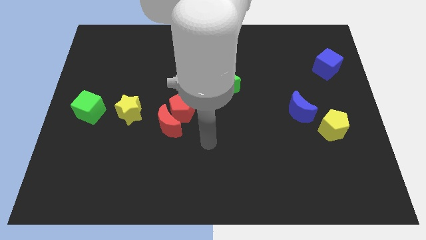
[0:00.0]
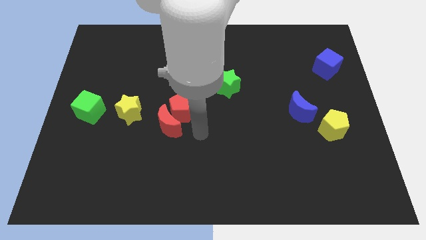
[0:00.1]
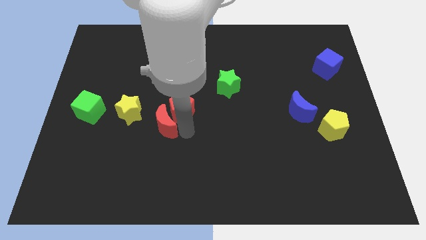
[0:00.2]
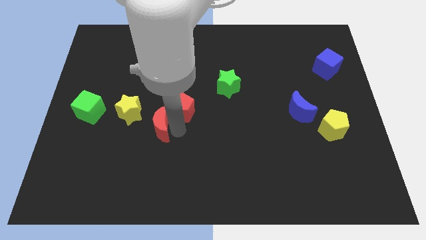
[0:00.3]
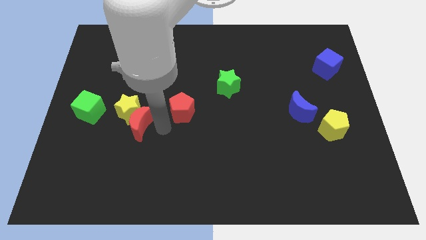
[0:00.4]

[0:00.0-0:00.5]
move the red pentagon away from the red moon

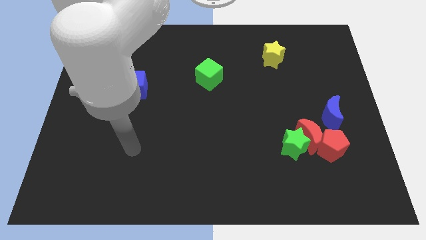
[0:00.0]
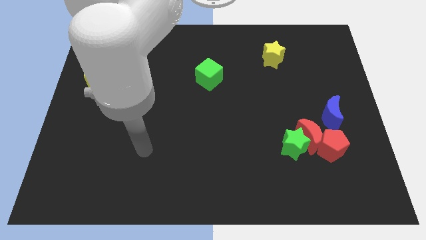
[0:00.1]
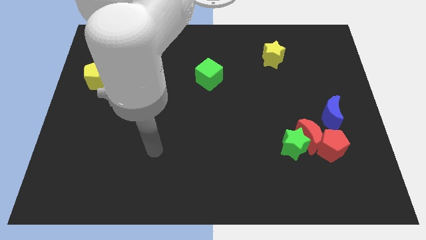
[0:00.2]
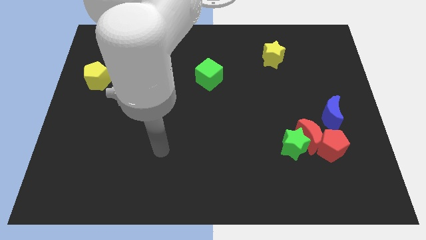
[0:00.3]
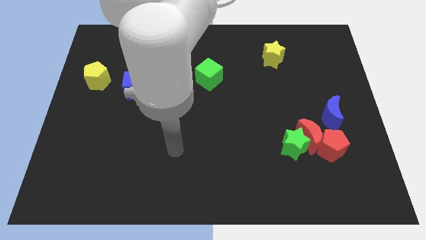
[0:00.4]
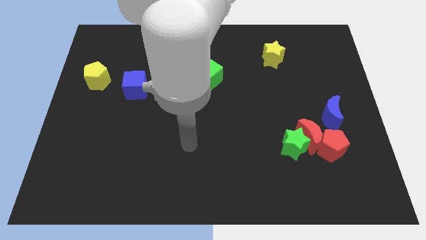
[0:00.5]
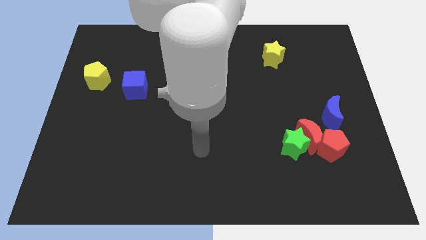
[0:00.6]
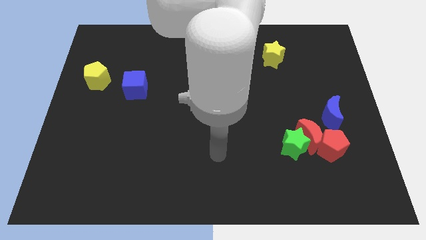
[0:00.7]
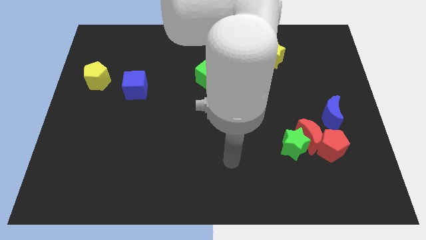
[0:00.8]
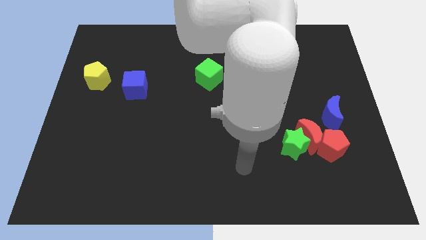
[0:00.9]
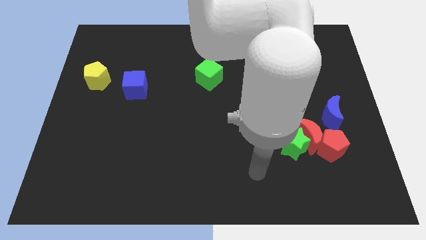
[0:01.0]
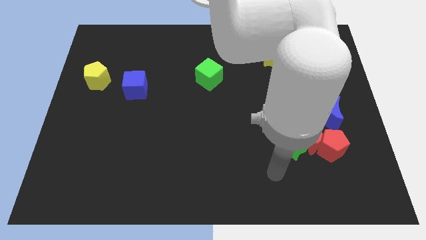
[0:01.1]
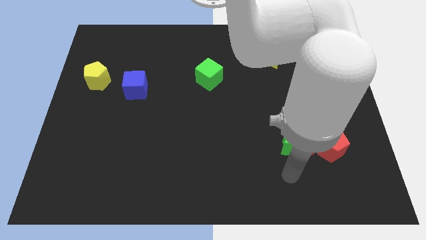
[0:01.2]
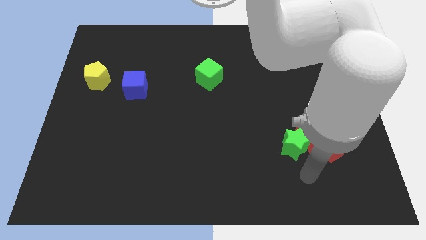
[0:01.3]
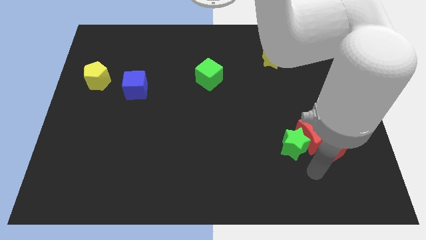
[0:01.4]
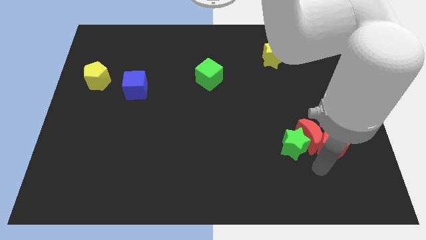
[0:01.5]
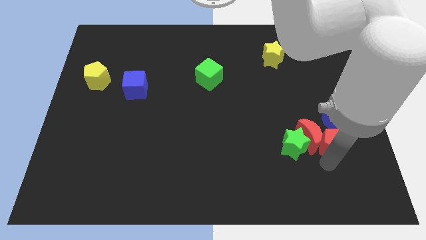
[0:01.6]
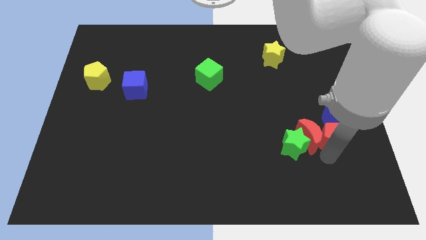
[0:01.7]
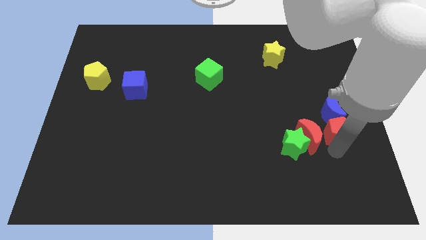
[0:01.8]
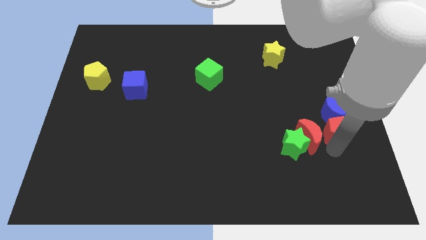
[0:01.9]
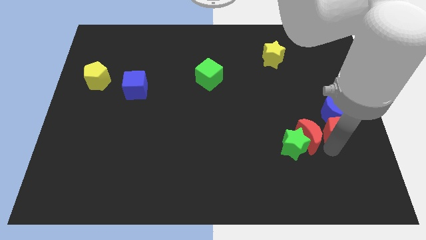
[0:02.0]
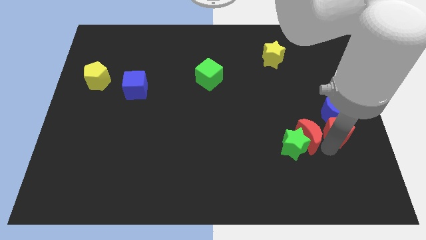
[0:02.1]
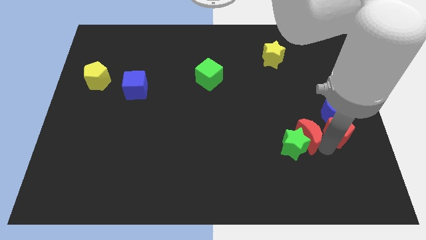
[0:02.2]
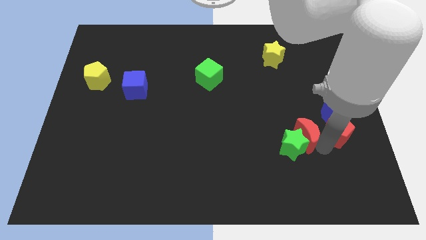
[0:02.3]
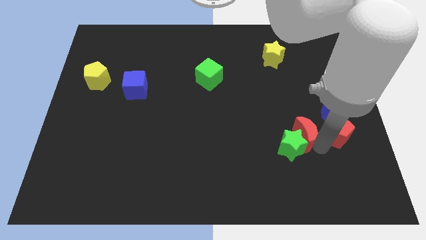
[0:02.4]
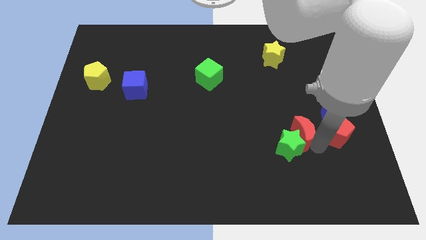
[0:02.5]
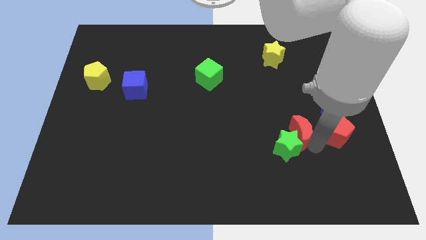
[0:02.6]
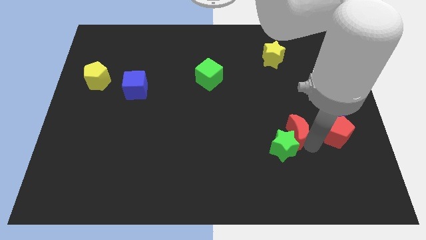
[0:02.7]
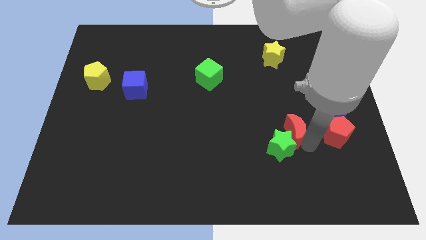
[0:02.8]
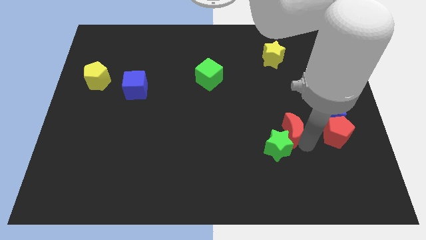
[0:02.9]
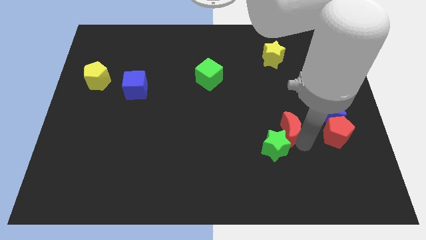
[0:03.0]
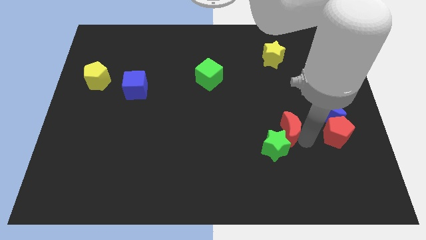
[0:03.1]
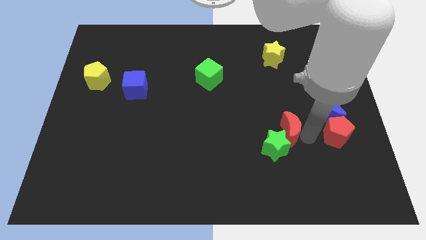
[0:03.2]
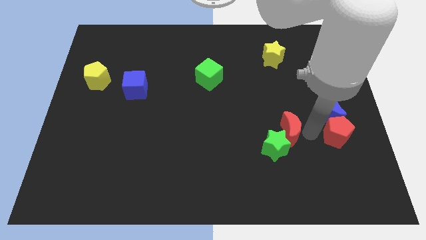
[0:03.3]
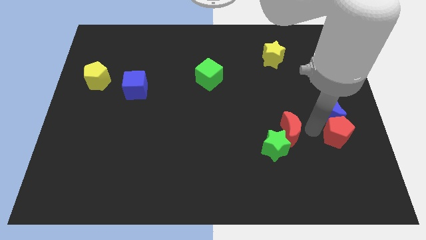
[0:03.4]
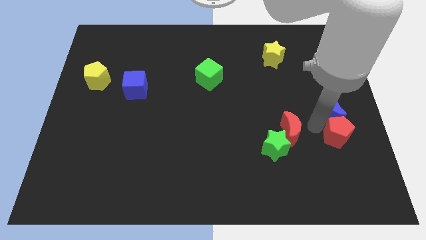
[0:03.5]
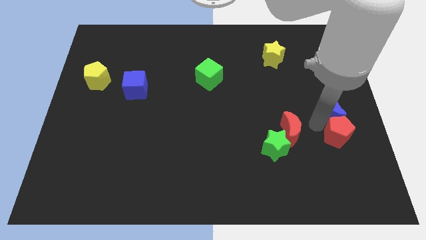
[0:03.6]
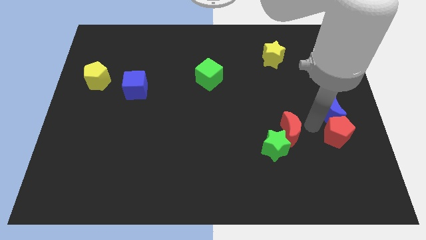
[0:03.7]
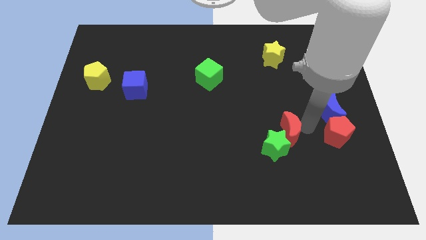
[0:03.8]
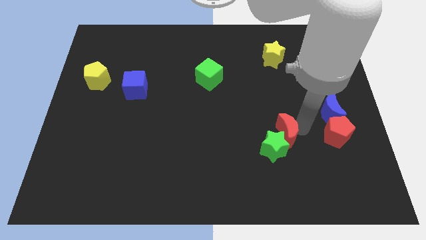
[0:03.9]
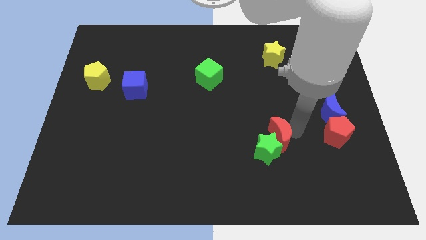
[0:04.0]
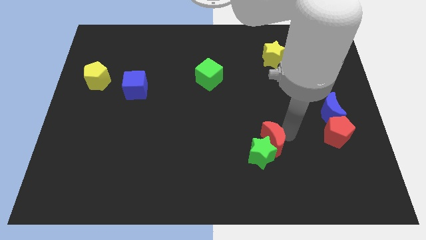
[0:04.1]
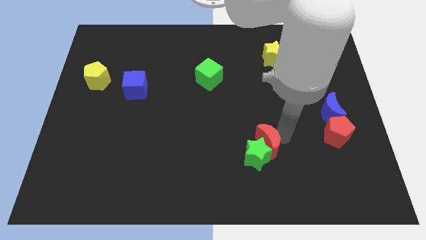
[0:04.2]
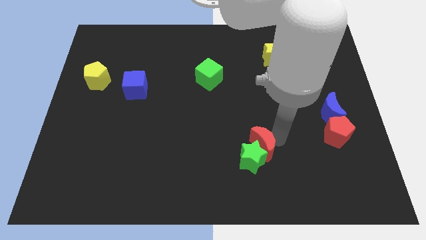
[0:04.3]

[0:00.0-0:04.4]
separate the red moon from the green star, red pentagon, and blue moon

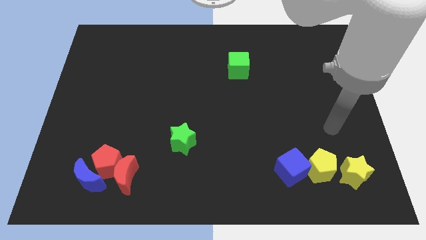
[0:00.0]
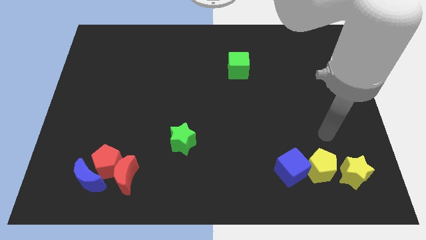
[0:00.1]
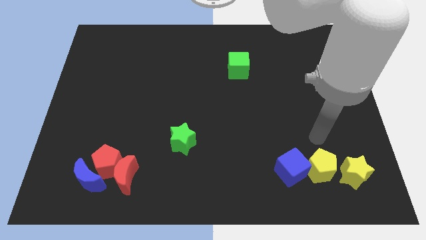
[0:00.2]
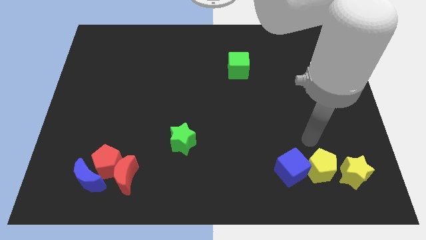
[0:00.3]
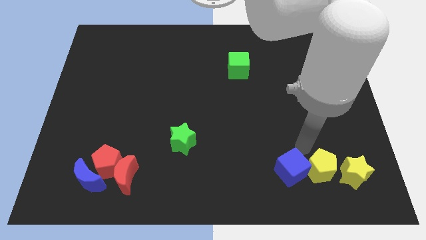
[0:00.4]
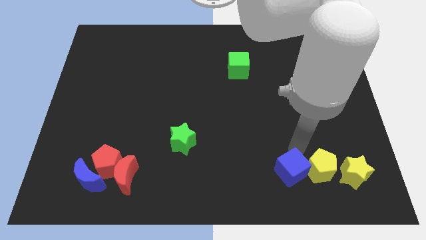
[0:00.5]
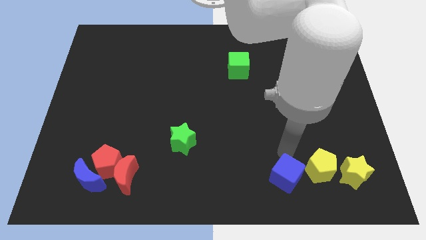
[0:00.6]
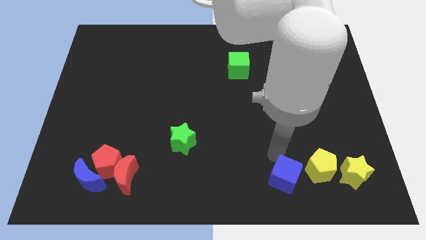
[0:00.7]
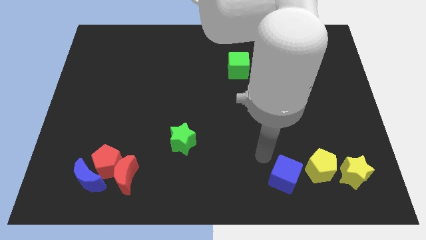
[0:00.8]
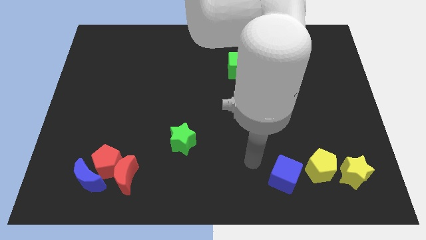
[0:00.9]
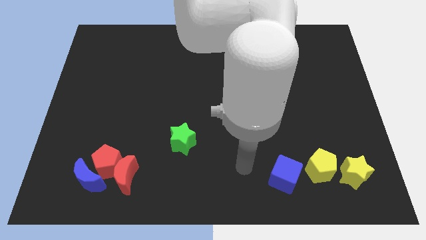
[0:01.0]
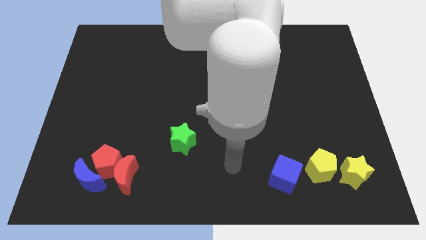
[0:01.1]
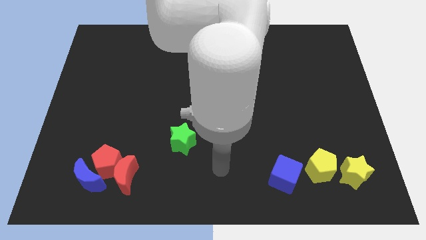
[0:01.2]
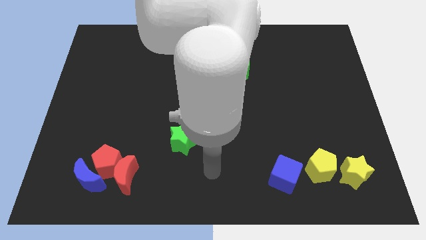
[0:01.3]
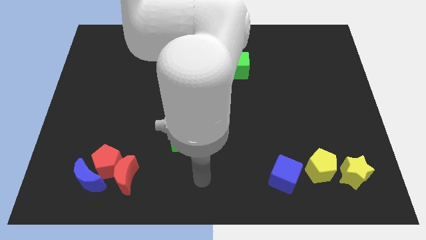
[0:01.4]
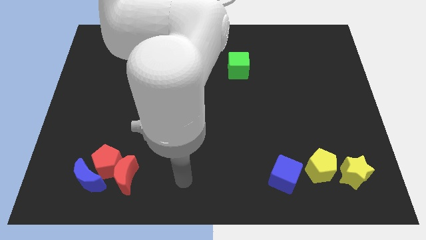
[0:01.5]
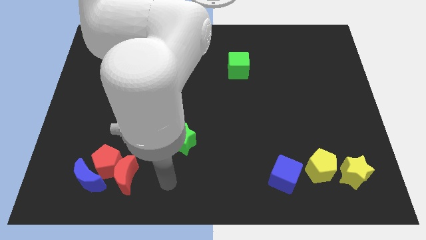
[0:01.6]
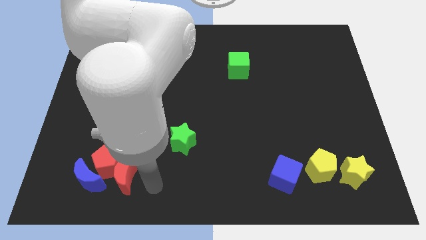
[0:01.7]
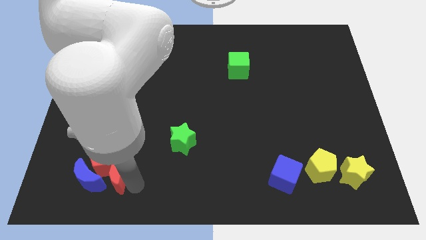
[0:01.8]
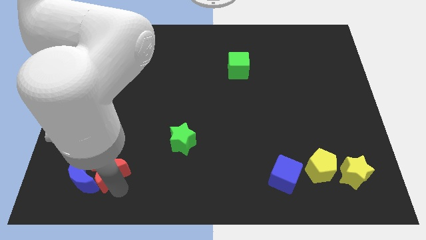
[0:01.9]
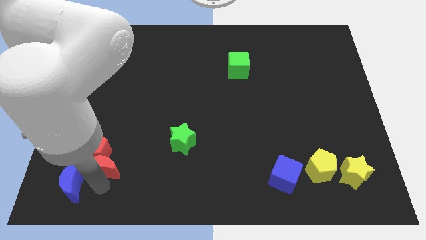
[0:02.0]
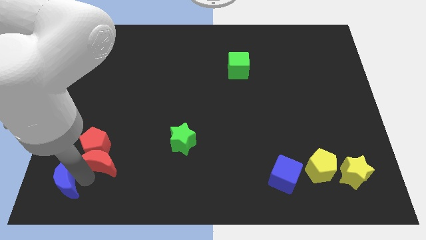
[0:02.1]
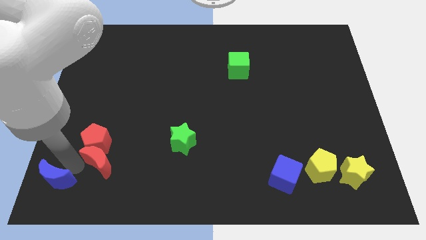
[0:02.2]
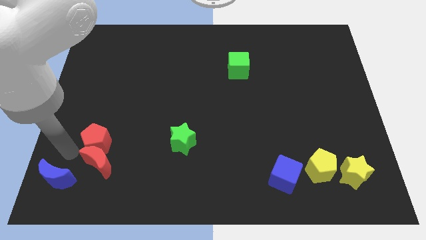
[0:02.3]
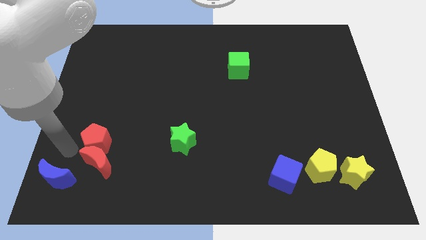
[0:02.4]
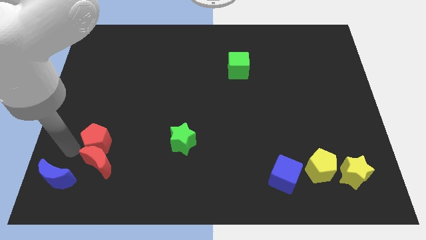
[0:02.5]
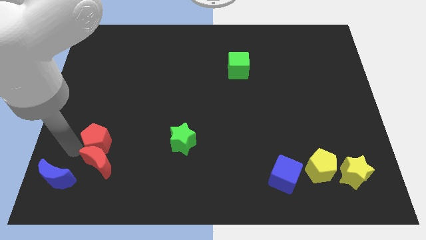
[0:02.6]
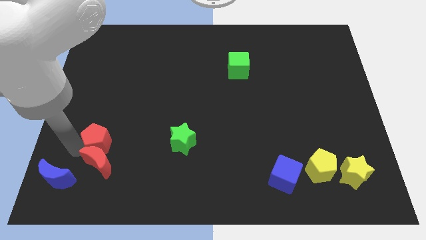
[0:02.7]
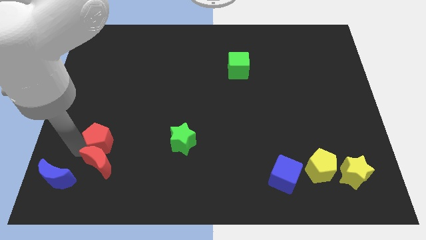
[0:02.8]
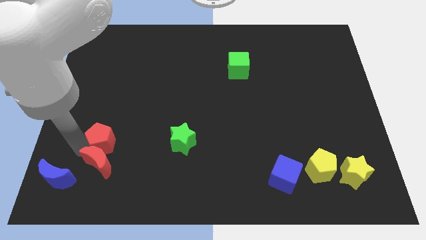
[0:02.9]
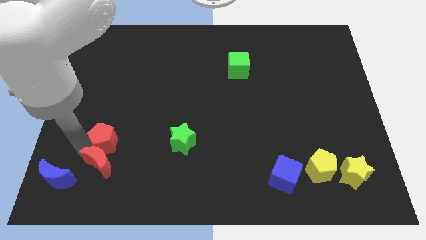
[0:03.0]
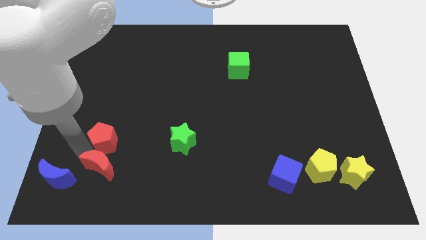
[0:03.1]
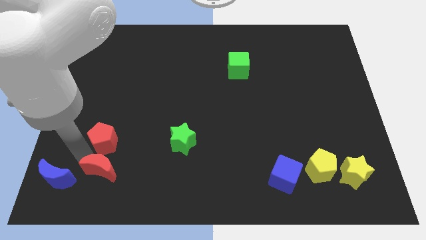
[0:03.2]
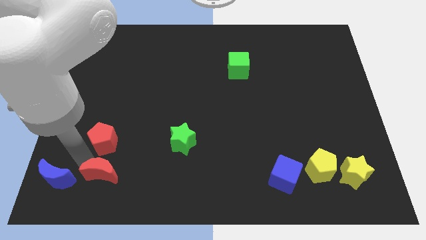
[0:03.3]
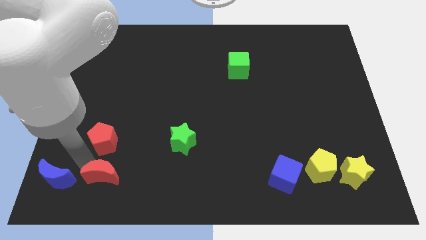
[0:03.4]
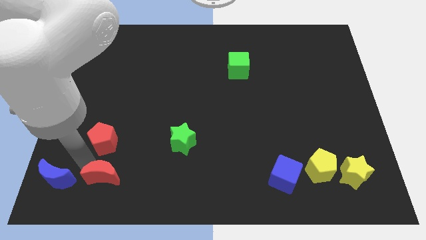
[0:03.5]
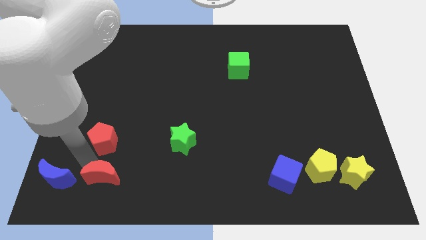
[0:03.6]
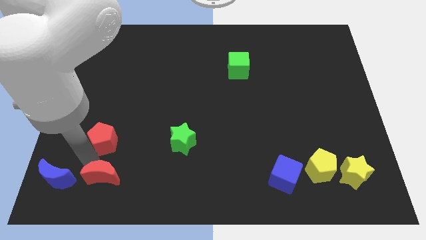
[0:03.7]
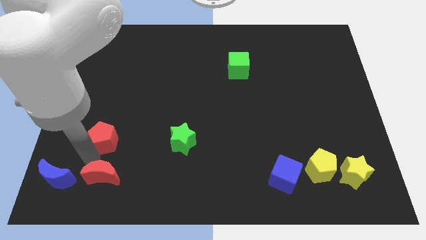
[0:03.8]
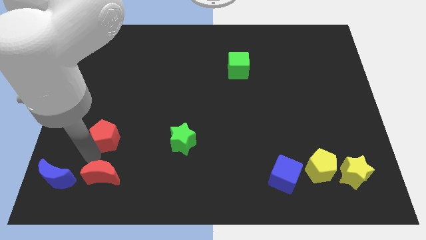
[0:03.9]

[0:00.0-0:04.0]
separate the red pentagon from the red moon and blue moon

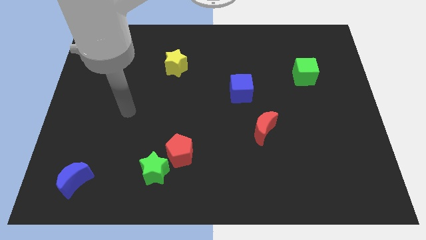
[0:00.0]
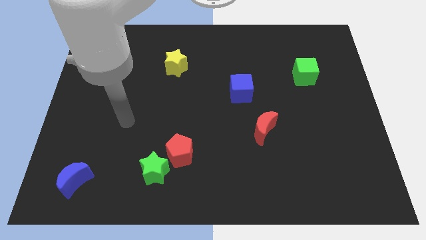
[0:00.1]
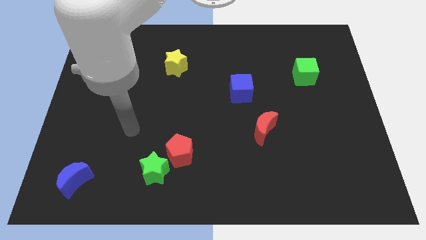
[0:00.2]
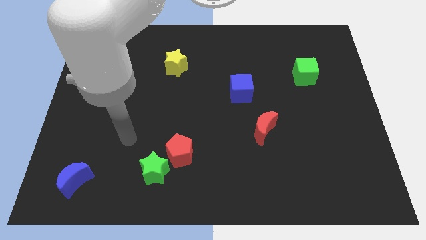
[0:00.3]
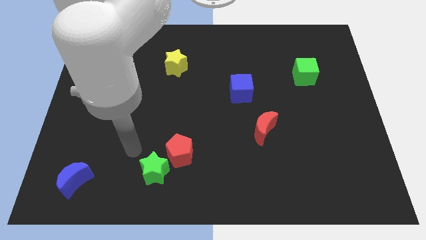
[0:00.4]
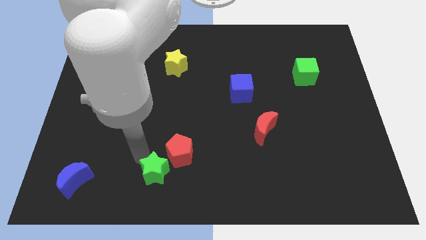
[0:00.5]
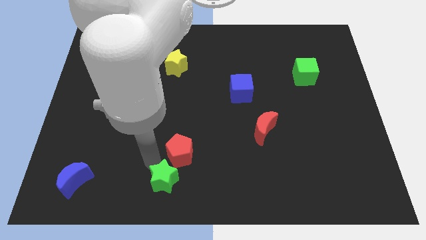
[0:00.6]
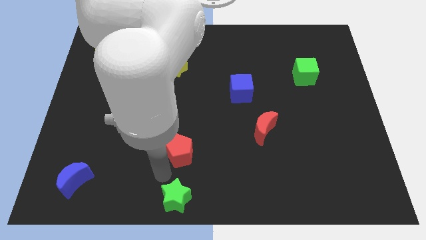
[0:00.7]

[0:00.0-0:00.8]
pull the red pentagon apart from the green star
